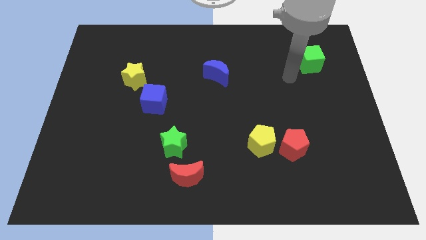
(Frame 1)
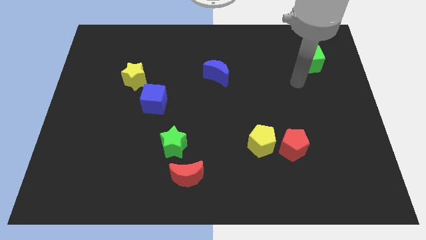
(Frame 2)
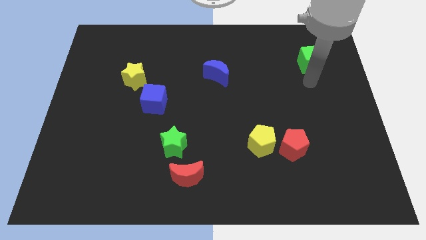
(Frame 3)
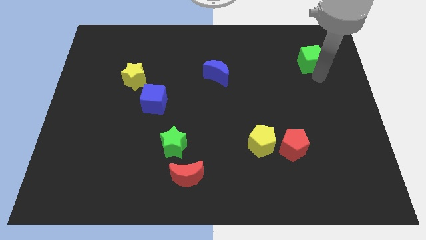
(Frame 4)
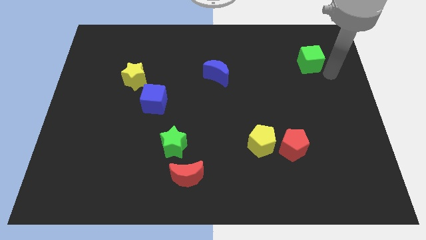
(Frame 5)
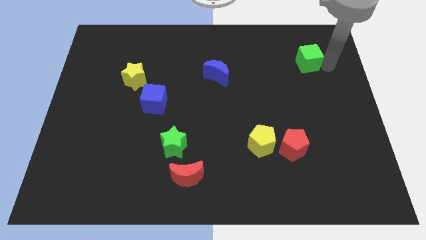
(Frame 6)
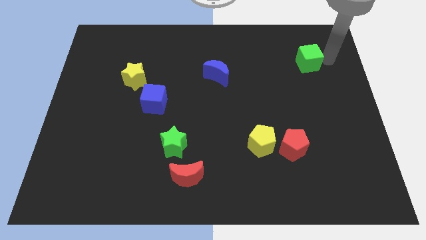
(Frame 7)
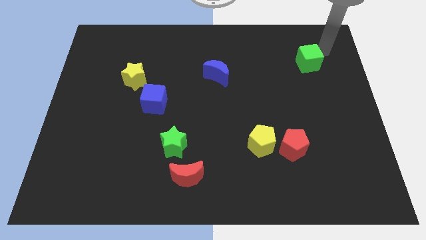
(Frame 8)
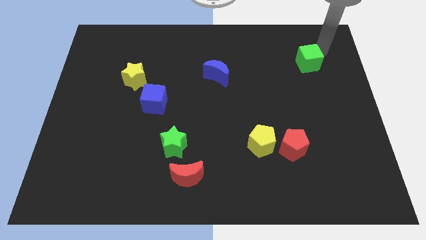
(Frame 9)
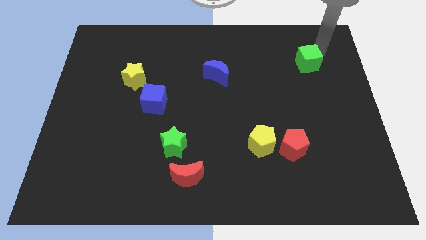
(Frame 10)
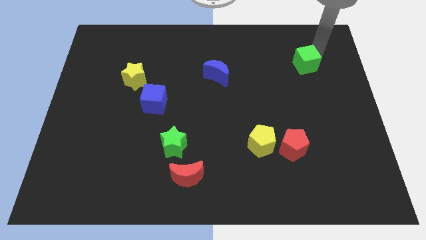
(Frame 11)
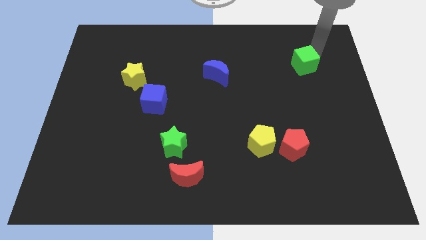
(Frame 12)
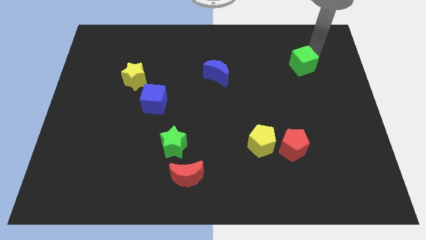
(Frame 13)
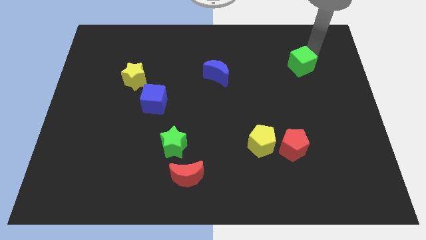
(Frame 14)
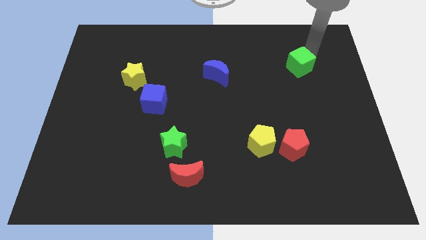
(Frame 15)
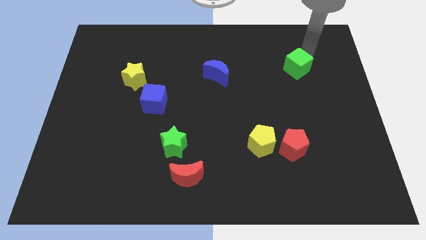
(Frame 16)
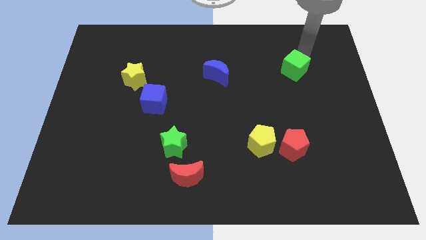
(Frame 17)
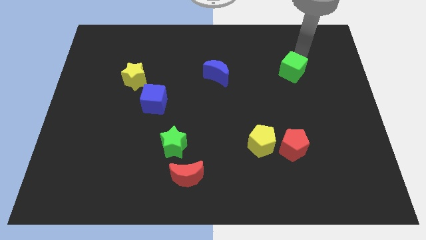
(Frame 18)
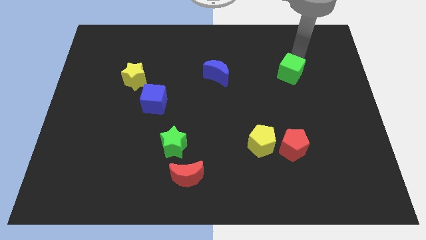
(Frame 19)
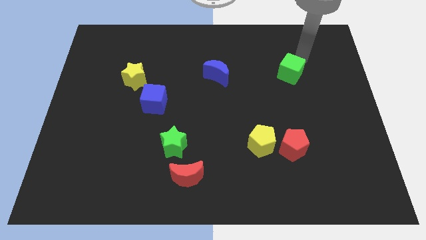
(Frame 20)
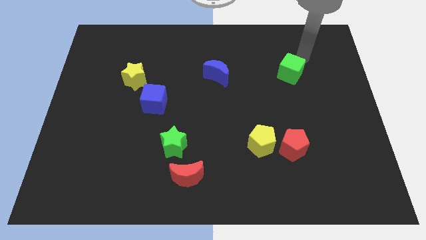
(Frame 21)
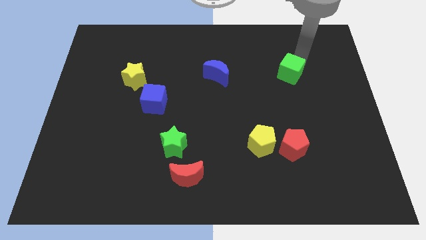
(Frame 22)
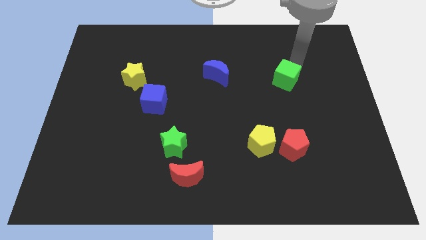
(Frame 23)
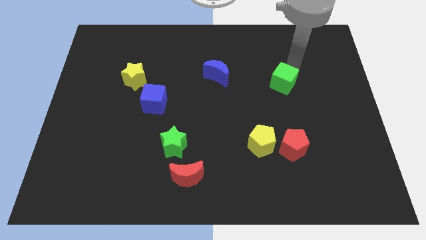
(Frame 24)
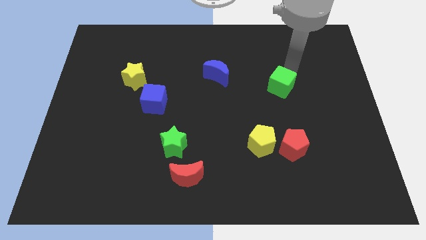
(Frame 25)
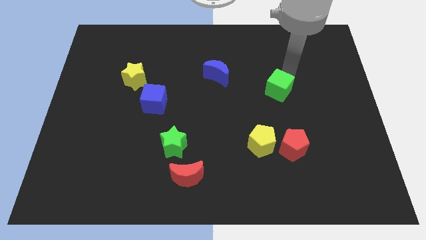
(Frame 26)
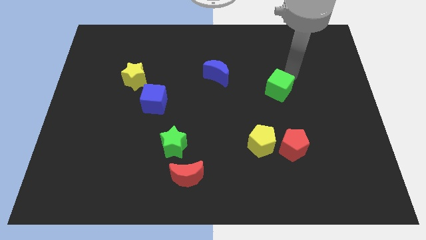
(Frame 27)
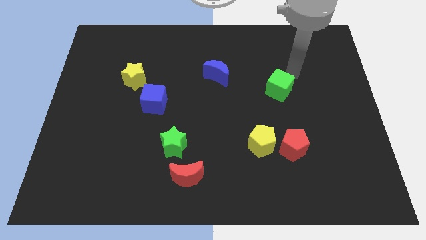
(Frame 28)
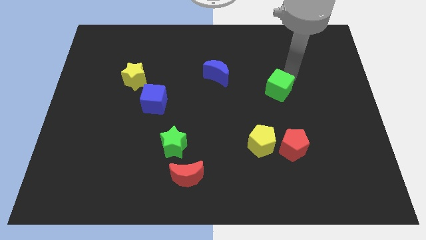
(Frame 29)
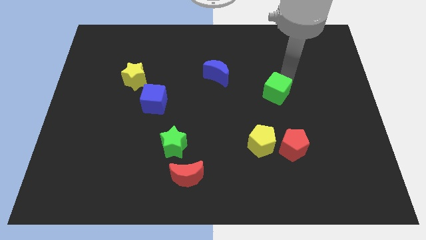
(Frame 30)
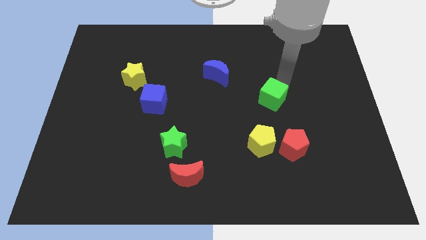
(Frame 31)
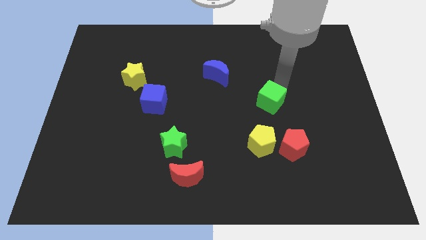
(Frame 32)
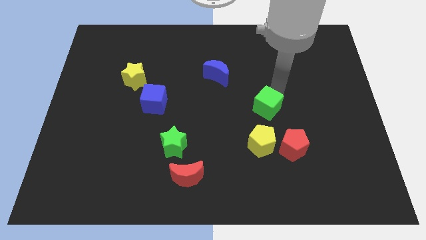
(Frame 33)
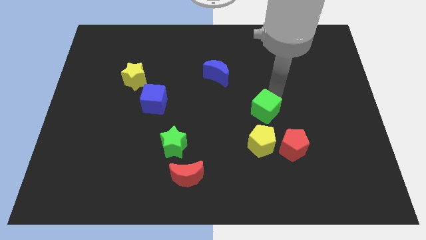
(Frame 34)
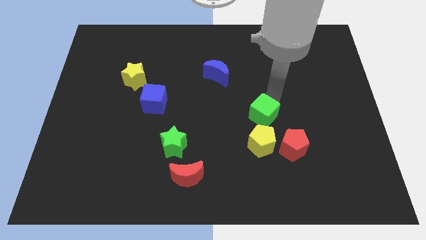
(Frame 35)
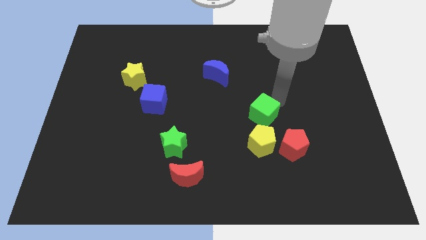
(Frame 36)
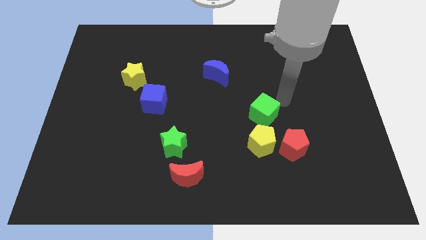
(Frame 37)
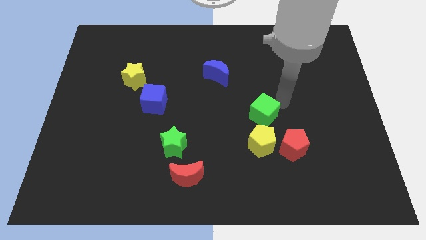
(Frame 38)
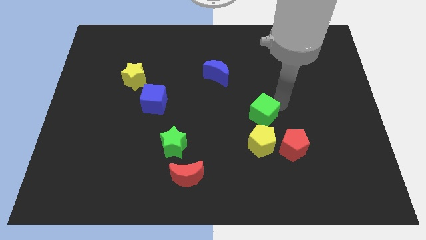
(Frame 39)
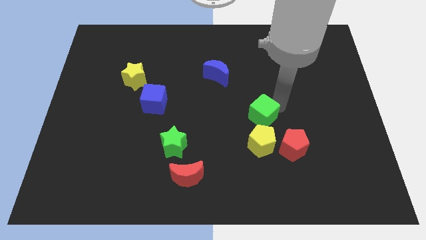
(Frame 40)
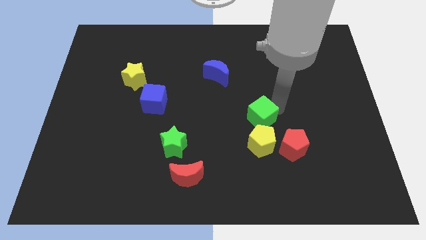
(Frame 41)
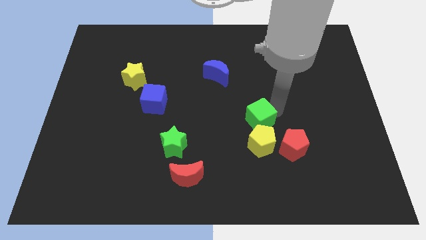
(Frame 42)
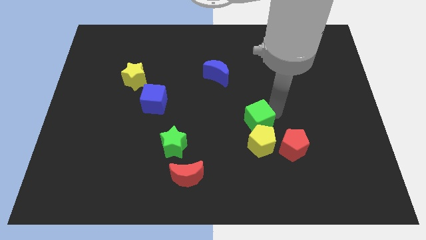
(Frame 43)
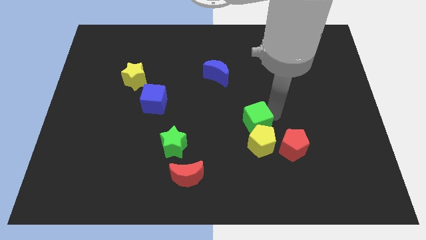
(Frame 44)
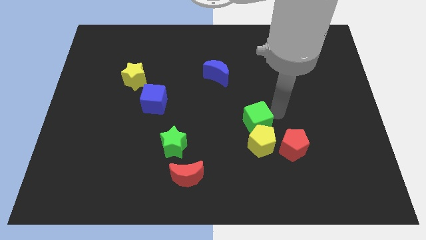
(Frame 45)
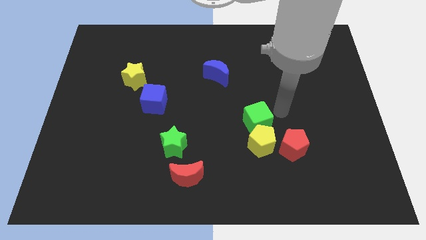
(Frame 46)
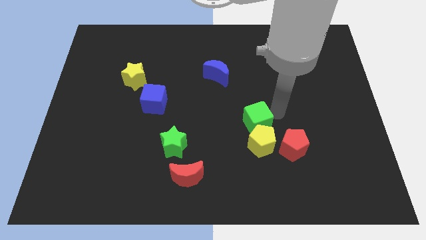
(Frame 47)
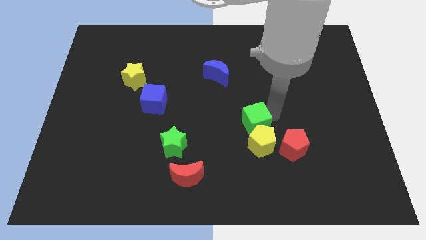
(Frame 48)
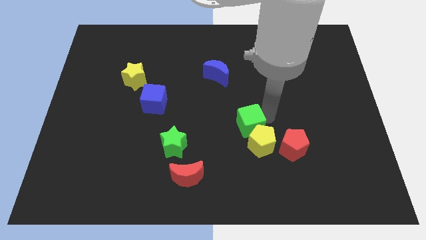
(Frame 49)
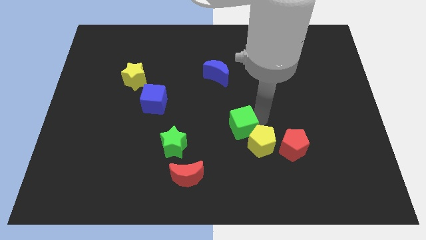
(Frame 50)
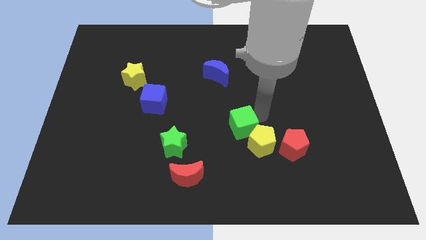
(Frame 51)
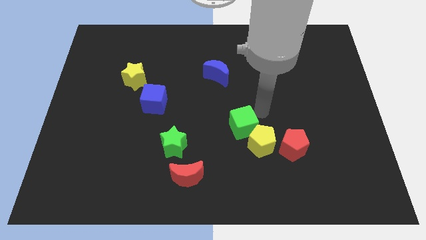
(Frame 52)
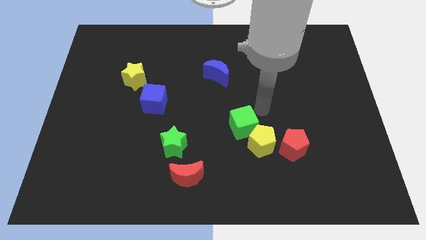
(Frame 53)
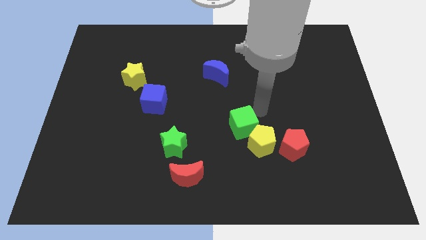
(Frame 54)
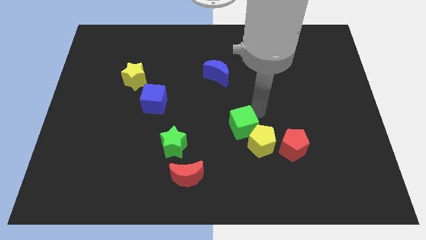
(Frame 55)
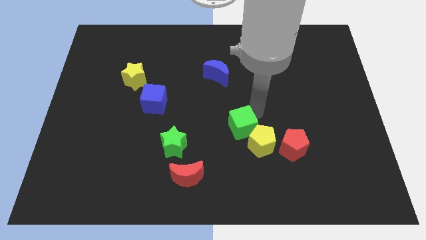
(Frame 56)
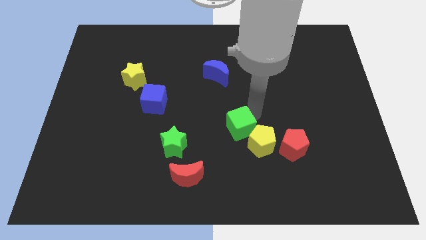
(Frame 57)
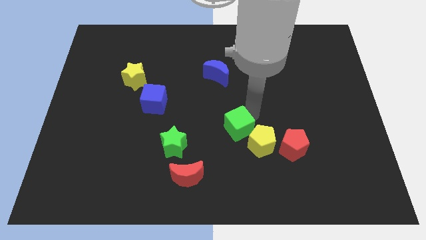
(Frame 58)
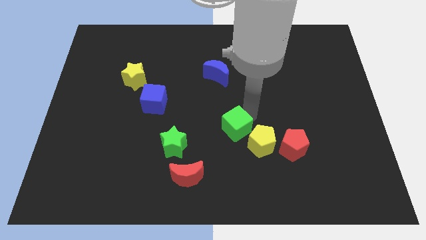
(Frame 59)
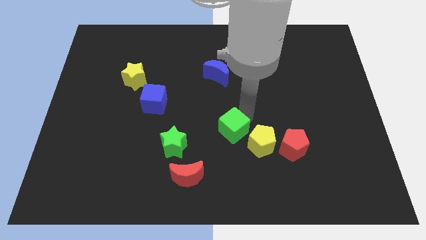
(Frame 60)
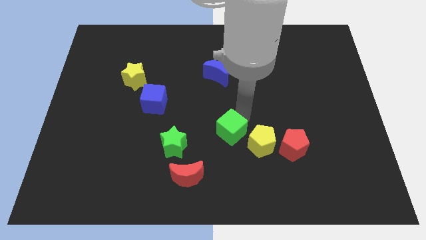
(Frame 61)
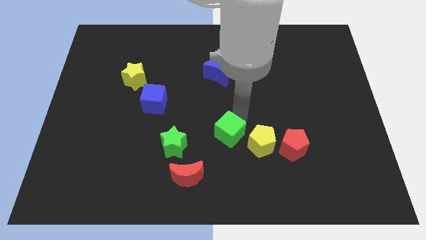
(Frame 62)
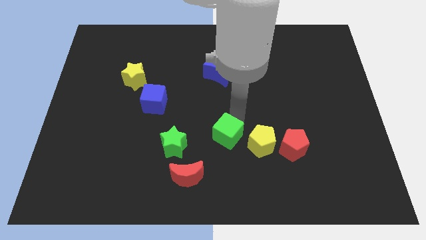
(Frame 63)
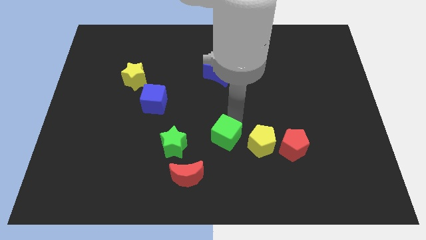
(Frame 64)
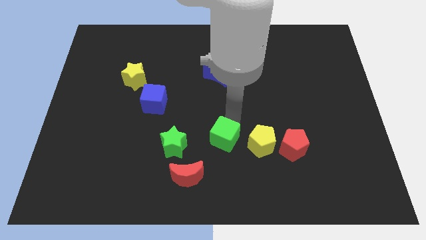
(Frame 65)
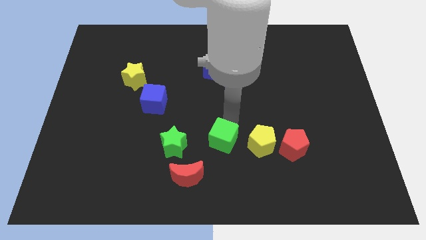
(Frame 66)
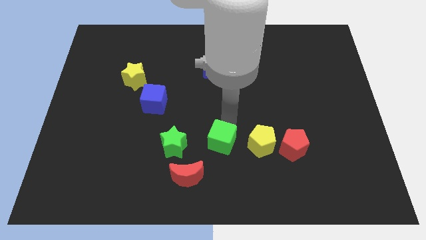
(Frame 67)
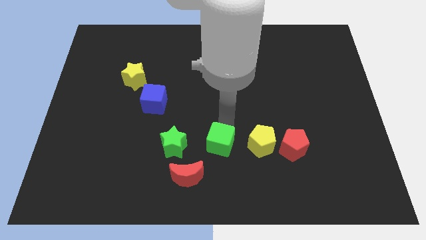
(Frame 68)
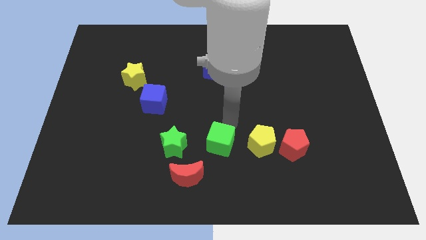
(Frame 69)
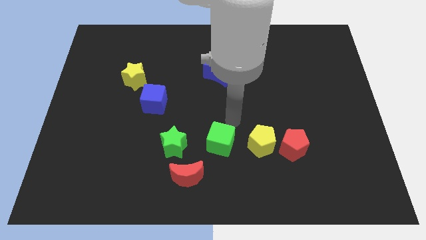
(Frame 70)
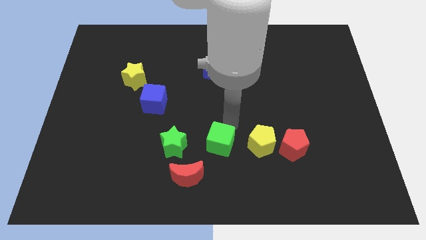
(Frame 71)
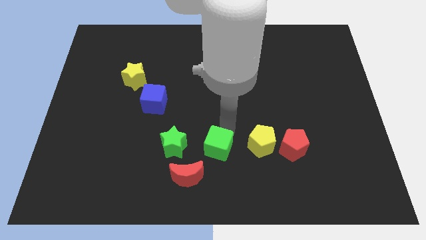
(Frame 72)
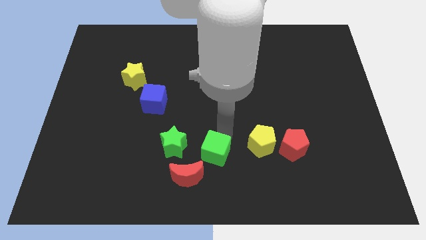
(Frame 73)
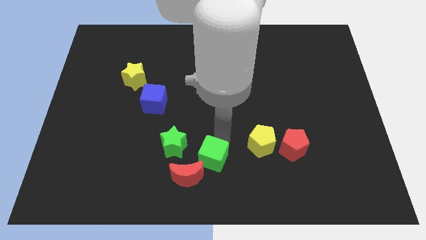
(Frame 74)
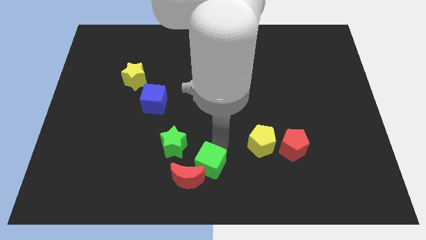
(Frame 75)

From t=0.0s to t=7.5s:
move the green cube next to the red moon
